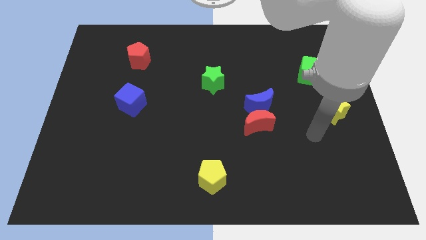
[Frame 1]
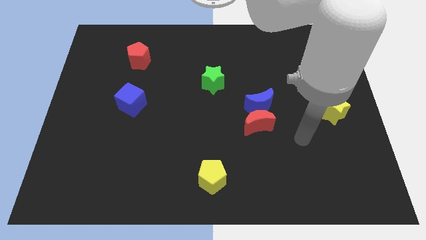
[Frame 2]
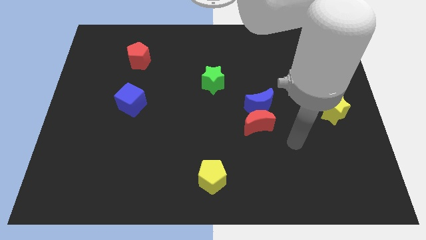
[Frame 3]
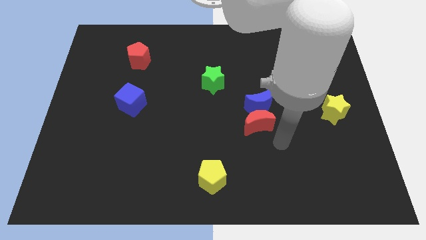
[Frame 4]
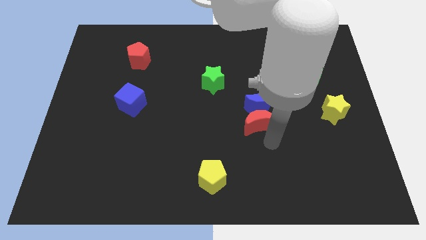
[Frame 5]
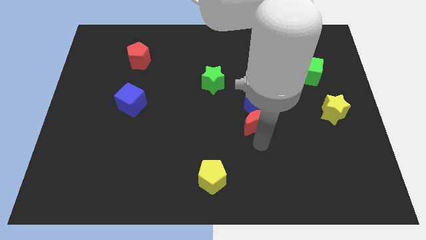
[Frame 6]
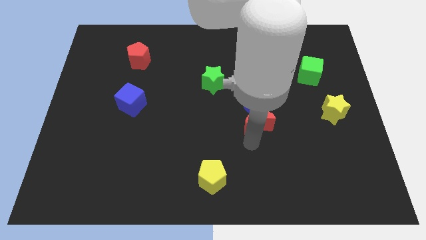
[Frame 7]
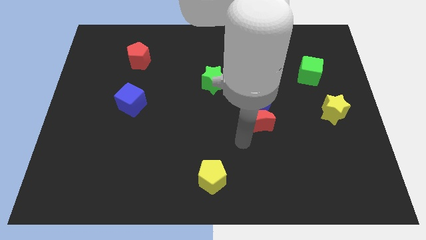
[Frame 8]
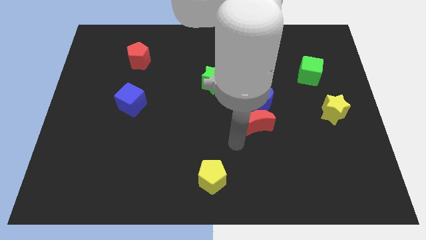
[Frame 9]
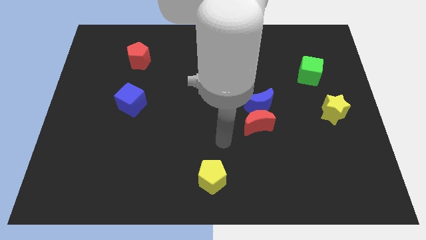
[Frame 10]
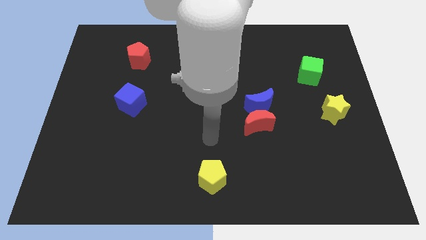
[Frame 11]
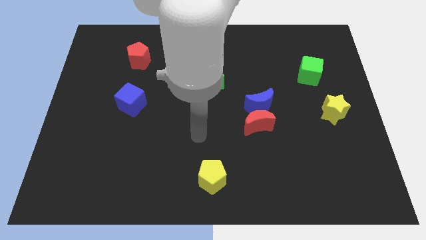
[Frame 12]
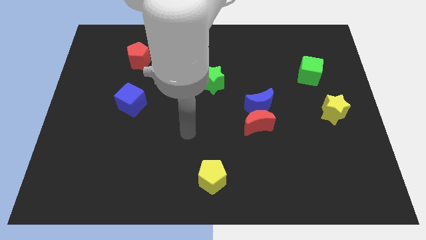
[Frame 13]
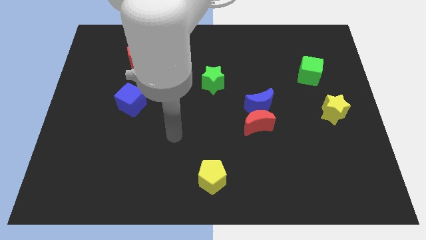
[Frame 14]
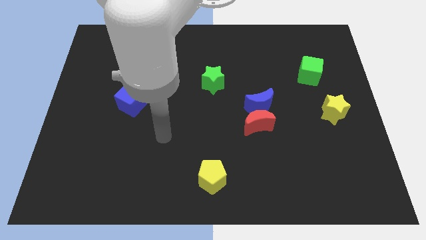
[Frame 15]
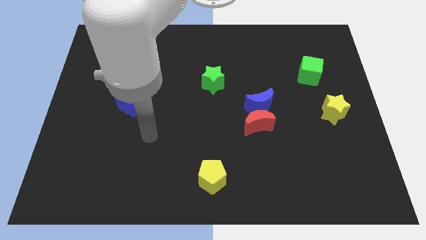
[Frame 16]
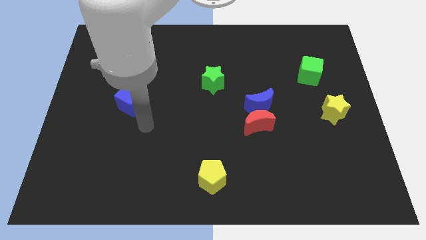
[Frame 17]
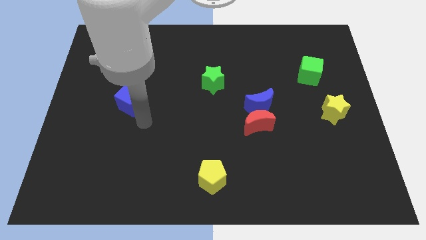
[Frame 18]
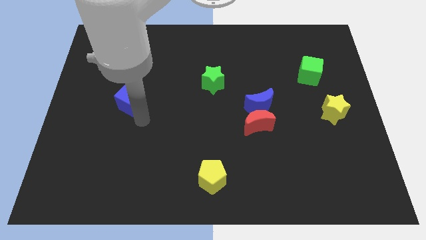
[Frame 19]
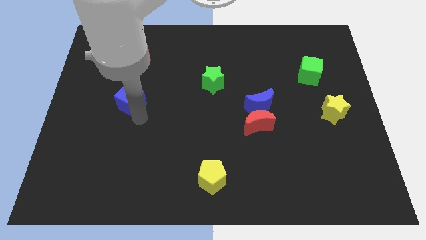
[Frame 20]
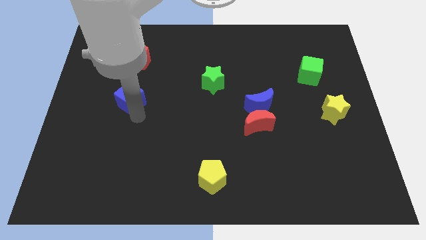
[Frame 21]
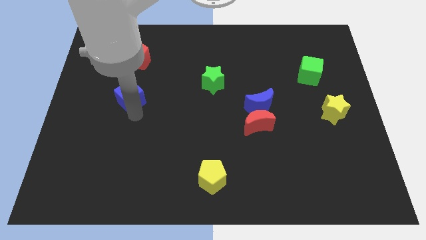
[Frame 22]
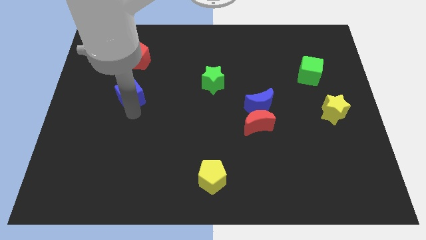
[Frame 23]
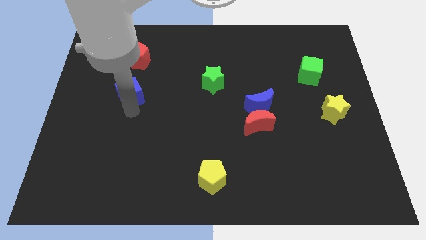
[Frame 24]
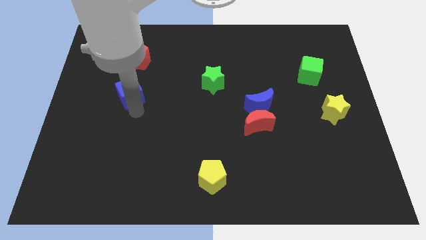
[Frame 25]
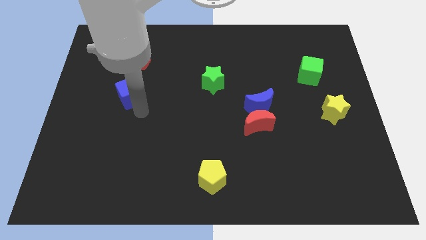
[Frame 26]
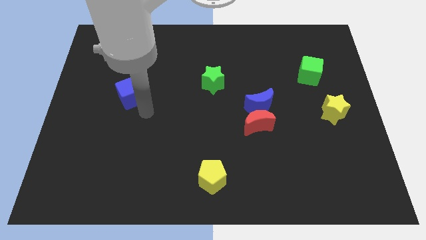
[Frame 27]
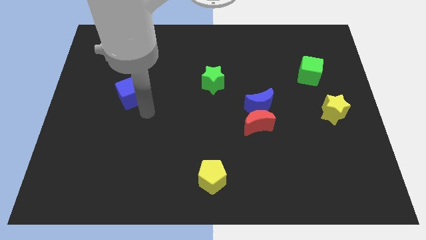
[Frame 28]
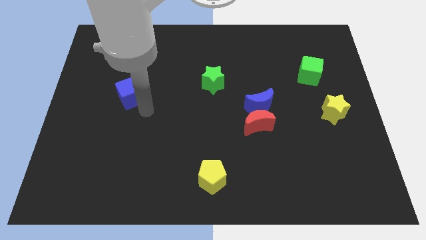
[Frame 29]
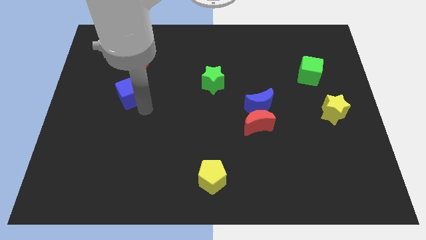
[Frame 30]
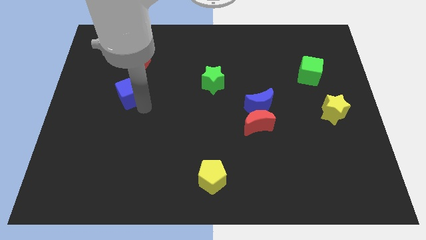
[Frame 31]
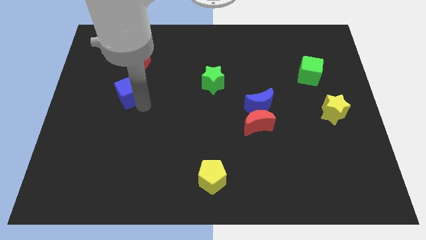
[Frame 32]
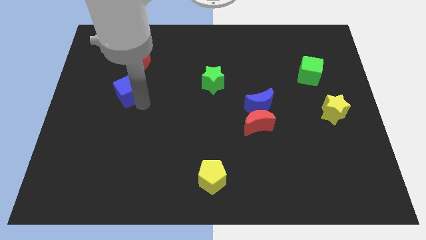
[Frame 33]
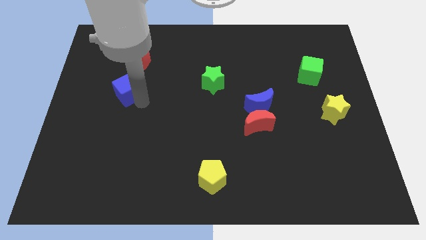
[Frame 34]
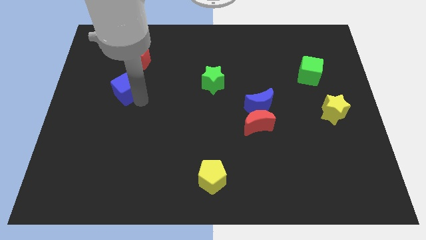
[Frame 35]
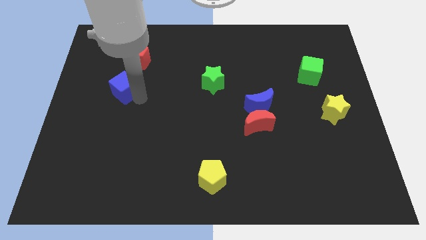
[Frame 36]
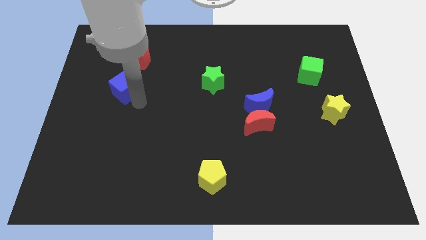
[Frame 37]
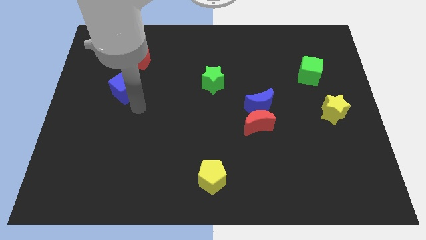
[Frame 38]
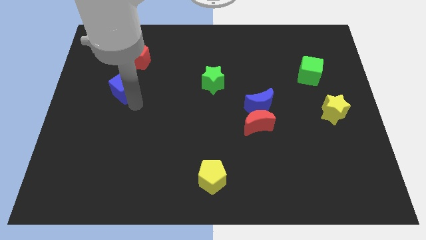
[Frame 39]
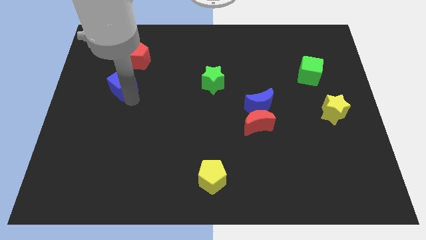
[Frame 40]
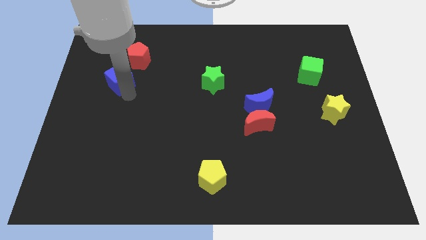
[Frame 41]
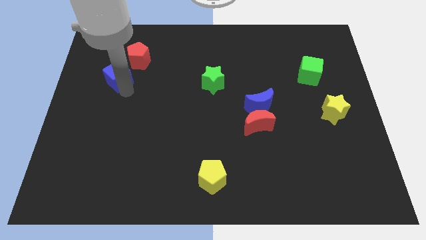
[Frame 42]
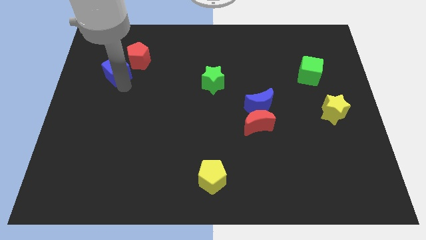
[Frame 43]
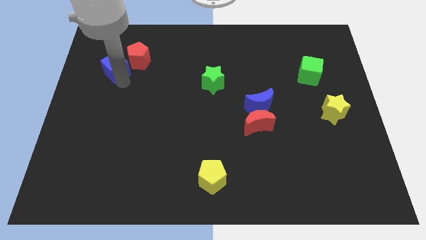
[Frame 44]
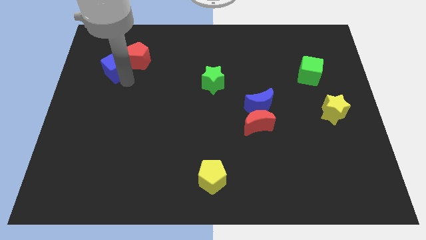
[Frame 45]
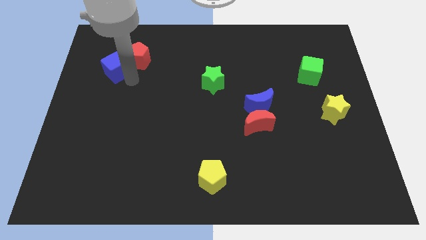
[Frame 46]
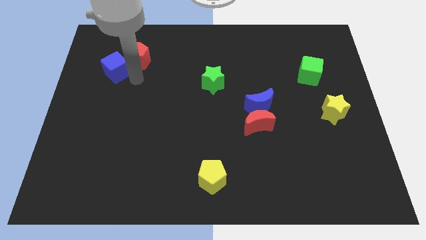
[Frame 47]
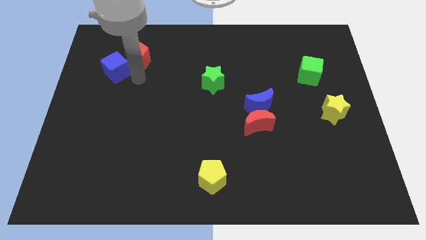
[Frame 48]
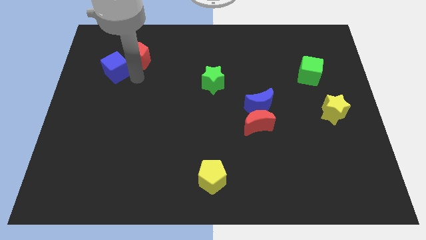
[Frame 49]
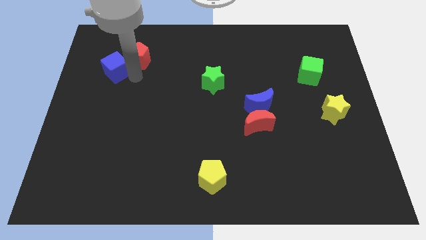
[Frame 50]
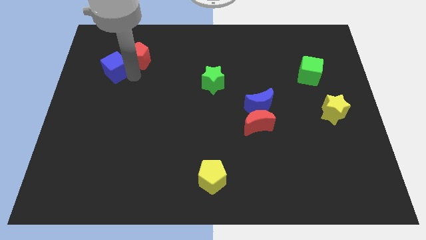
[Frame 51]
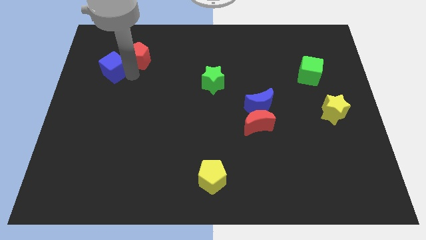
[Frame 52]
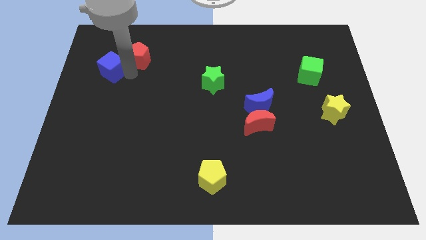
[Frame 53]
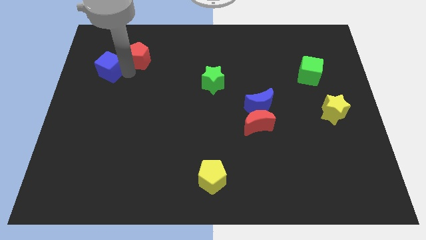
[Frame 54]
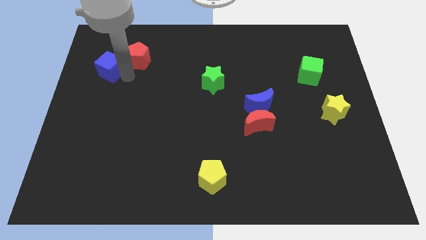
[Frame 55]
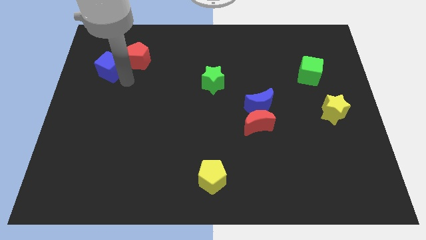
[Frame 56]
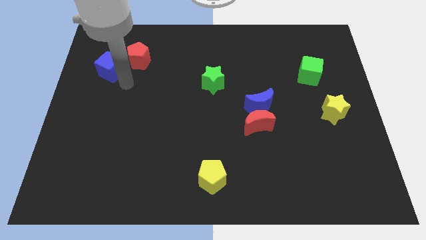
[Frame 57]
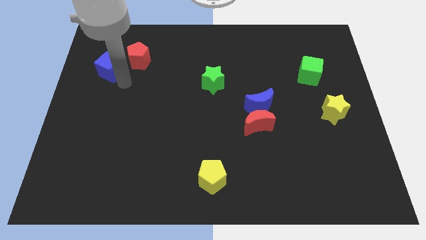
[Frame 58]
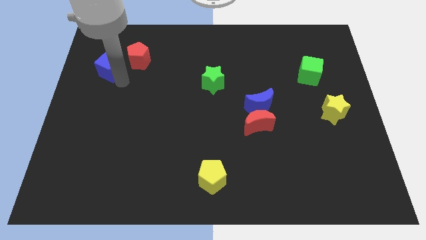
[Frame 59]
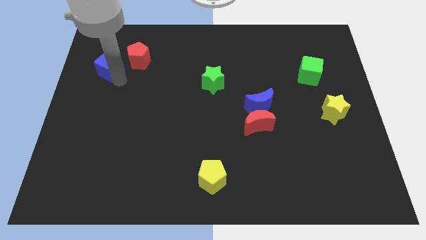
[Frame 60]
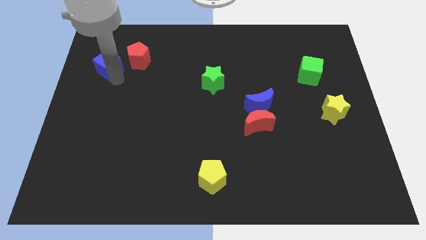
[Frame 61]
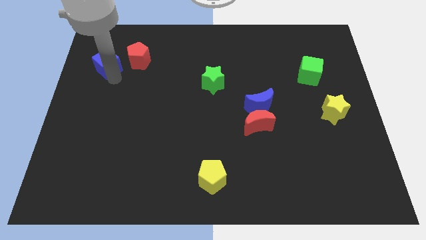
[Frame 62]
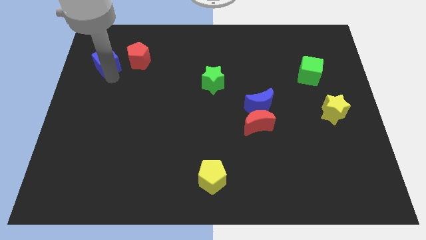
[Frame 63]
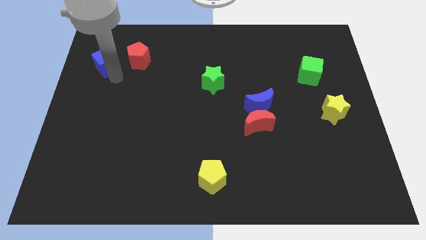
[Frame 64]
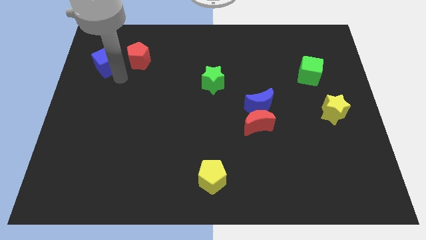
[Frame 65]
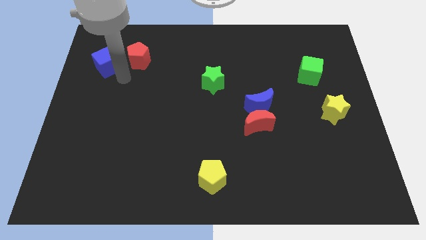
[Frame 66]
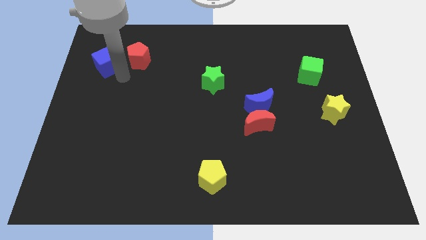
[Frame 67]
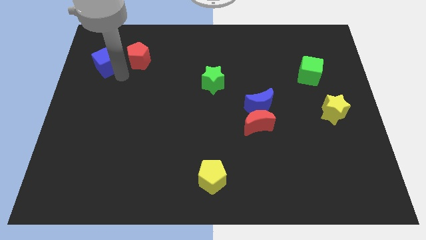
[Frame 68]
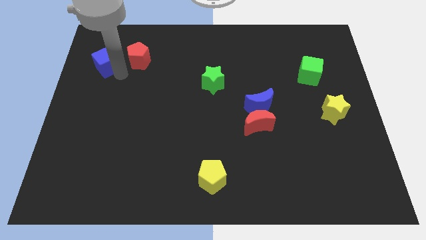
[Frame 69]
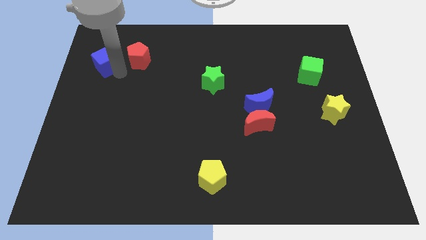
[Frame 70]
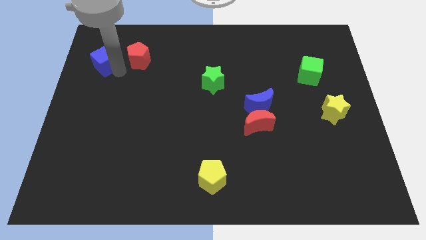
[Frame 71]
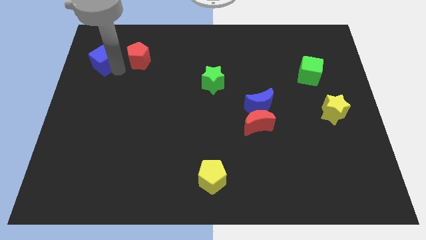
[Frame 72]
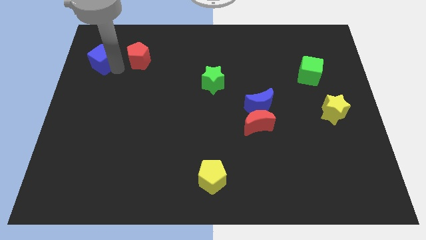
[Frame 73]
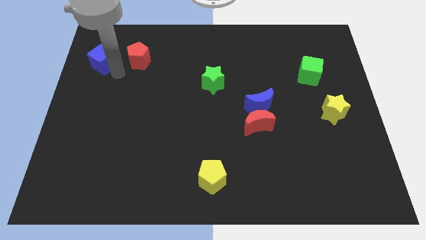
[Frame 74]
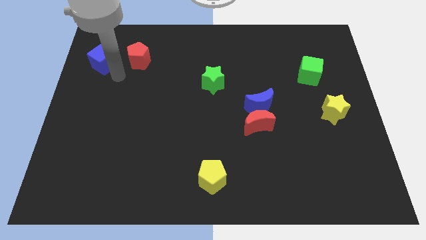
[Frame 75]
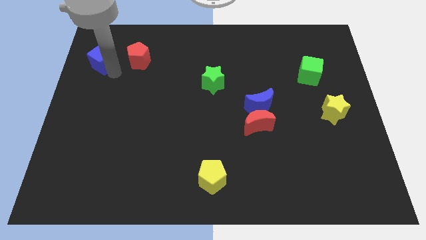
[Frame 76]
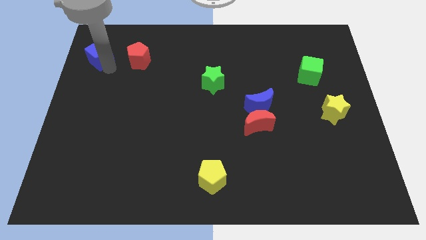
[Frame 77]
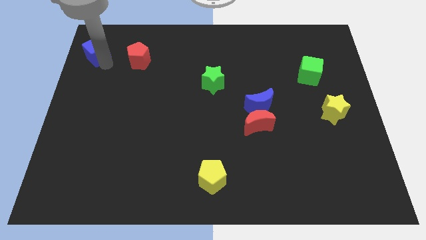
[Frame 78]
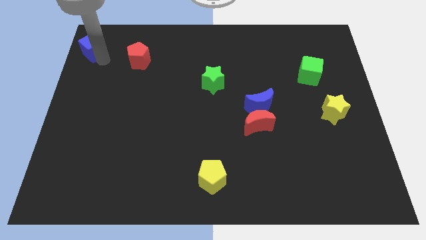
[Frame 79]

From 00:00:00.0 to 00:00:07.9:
put the blue cube to the top left corner
